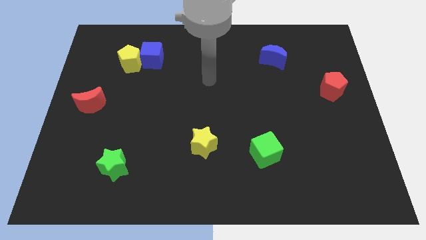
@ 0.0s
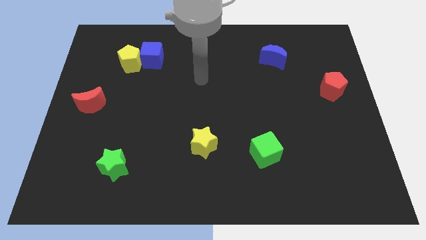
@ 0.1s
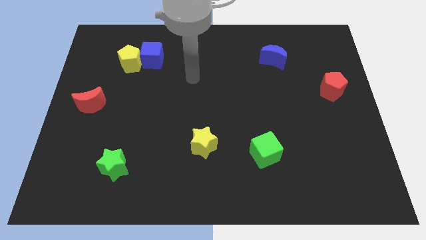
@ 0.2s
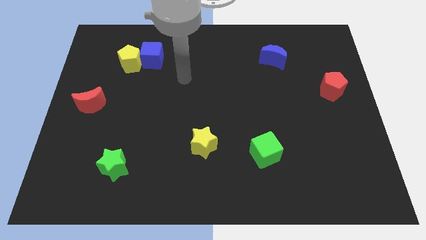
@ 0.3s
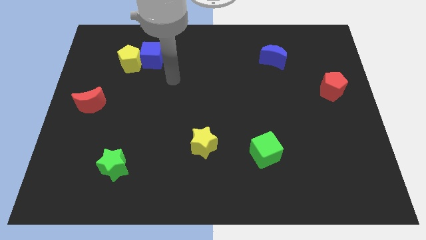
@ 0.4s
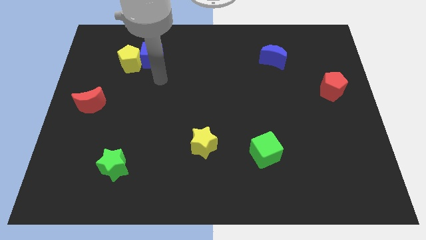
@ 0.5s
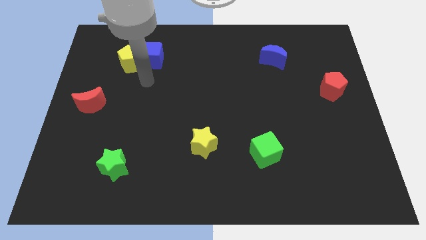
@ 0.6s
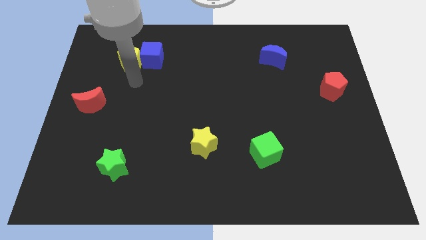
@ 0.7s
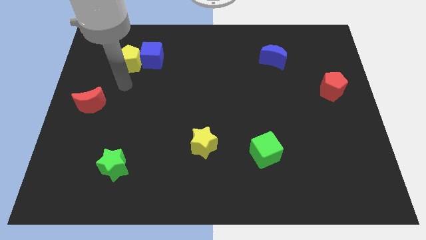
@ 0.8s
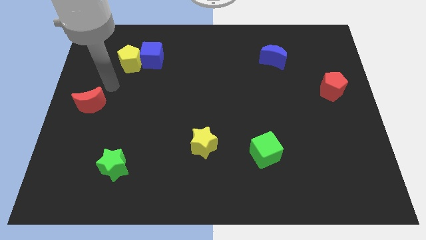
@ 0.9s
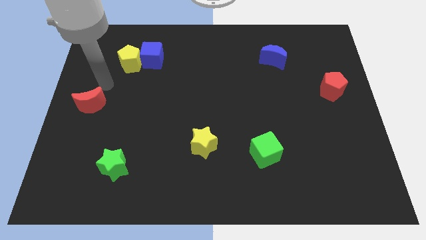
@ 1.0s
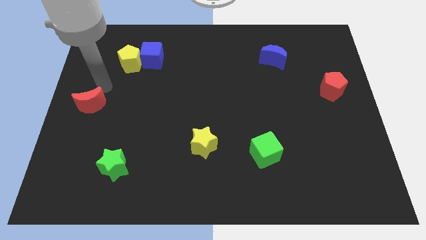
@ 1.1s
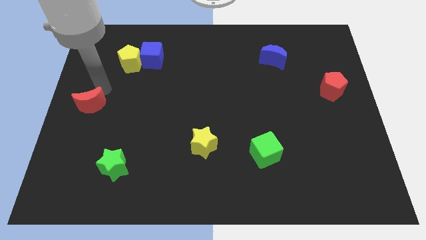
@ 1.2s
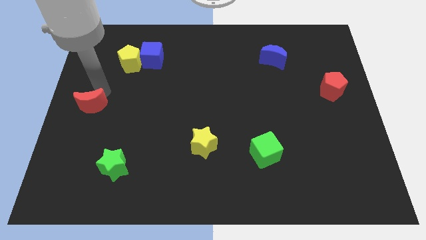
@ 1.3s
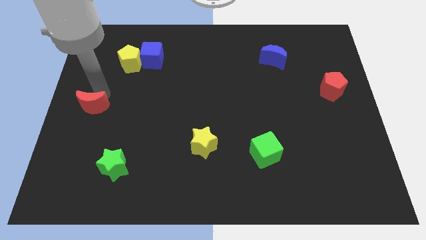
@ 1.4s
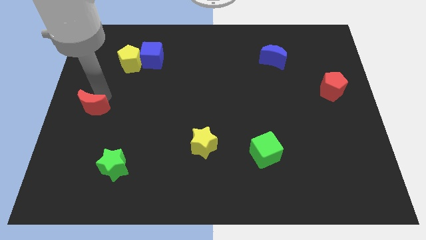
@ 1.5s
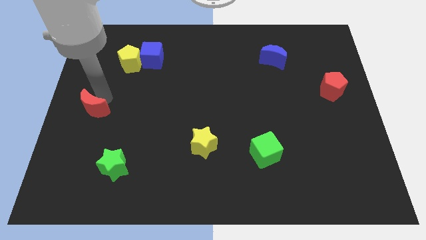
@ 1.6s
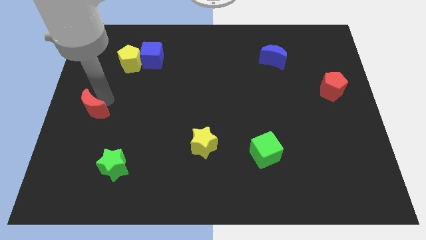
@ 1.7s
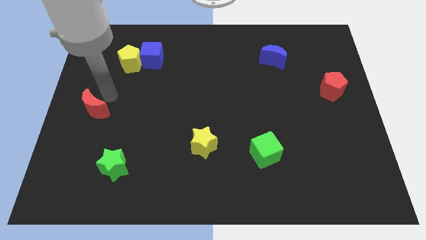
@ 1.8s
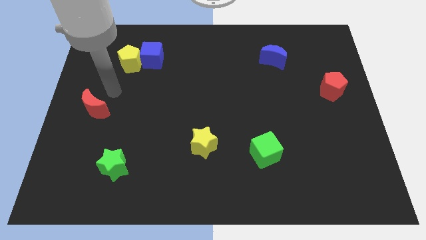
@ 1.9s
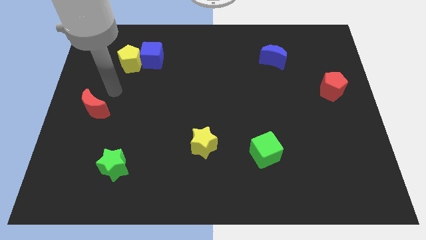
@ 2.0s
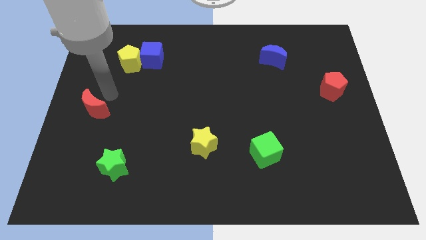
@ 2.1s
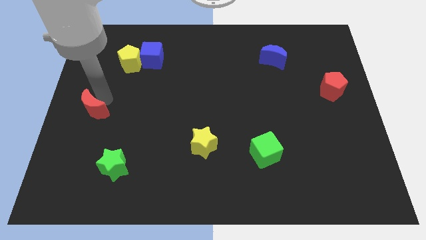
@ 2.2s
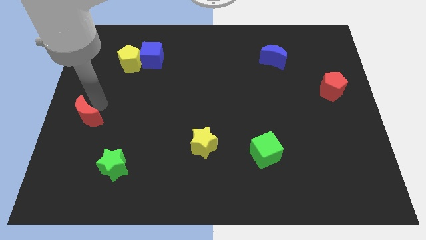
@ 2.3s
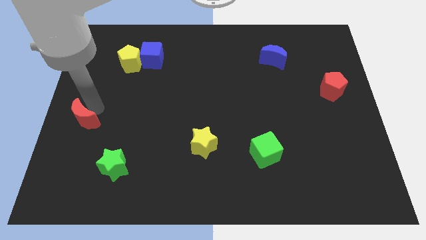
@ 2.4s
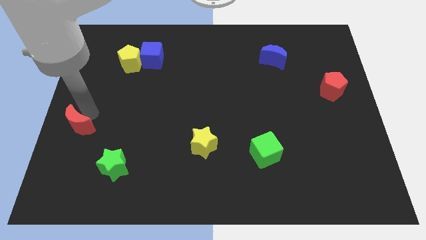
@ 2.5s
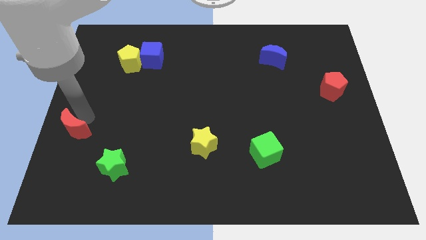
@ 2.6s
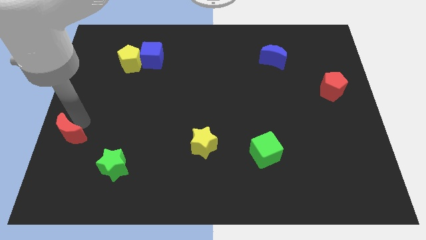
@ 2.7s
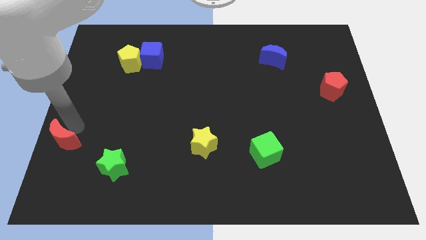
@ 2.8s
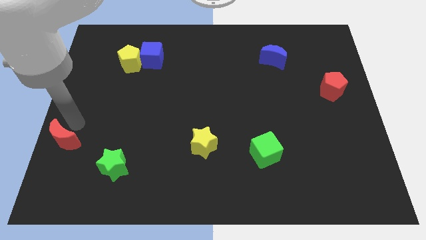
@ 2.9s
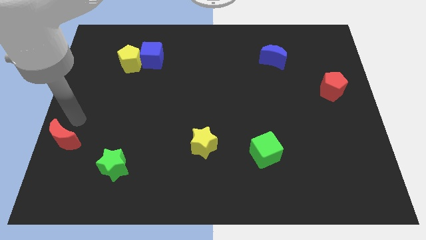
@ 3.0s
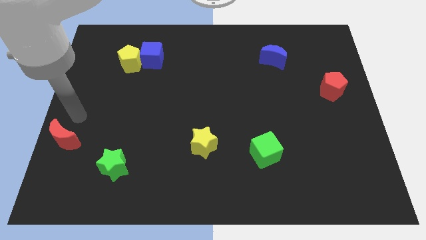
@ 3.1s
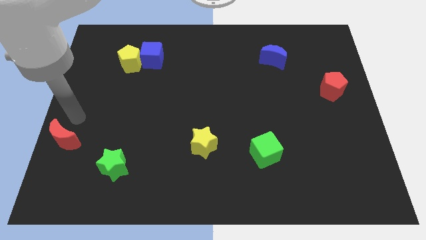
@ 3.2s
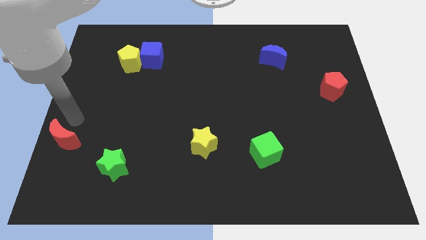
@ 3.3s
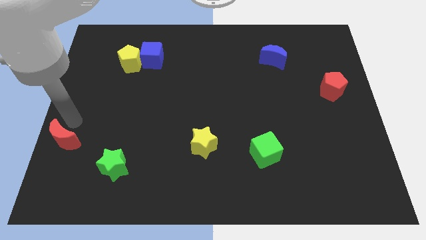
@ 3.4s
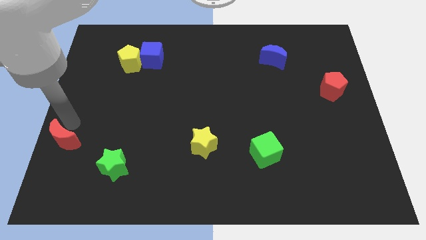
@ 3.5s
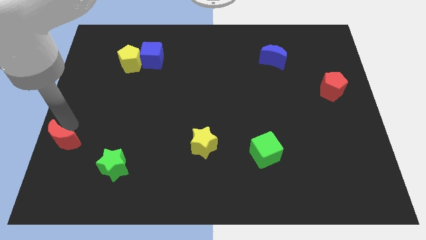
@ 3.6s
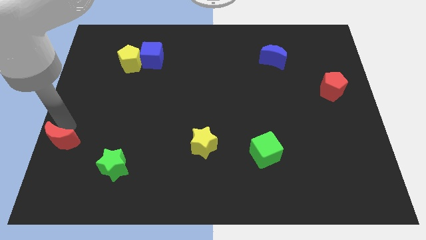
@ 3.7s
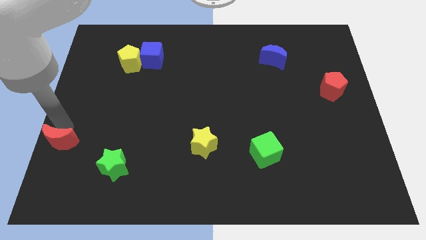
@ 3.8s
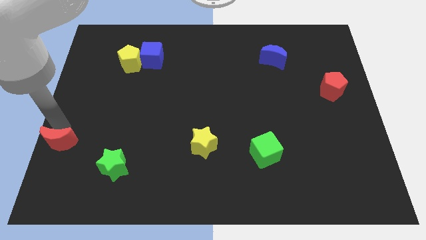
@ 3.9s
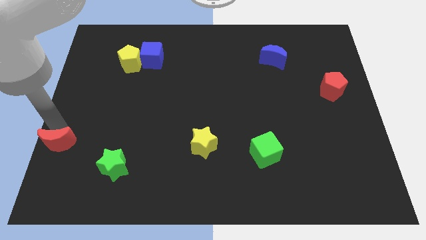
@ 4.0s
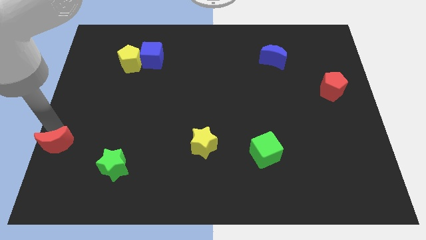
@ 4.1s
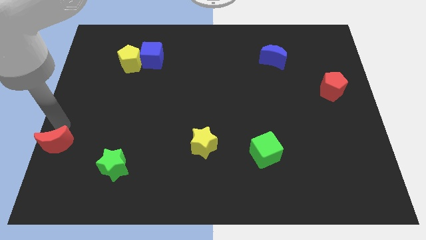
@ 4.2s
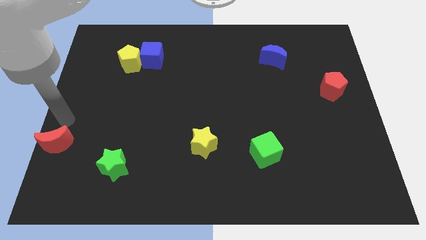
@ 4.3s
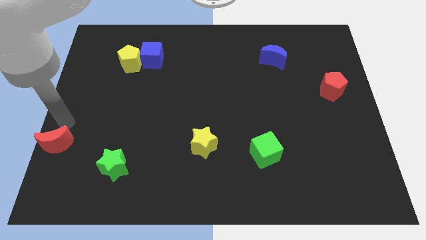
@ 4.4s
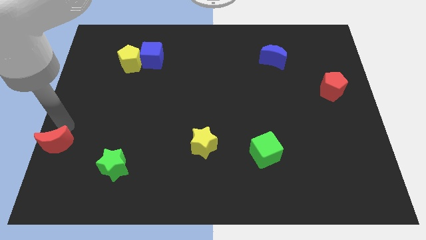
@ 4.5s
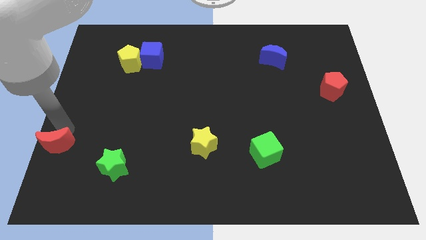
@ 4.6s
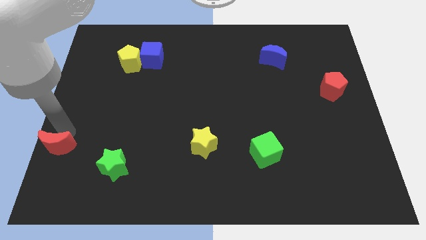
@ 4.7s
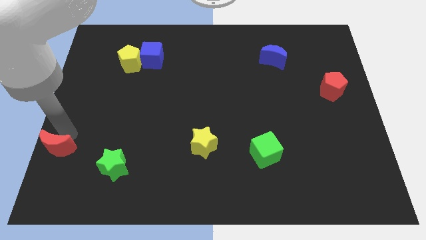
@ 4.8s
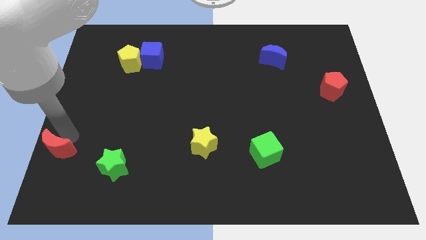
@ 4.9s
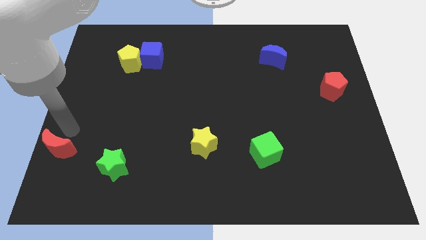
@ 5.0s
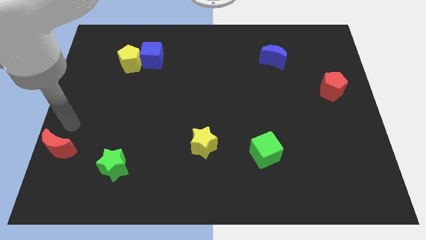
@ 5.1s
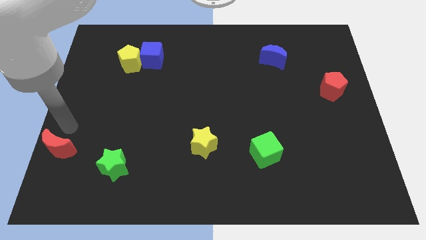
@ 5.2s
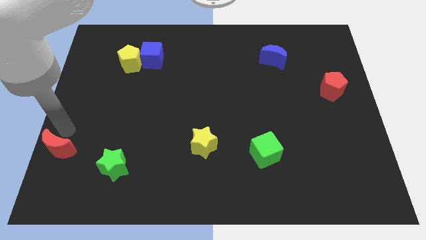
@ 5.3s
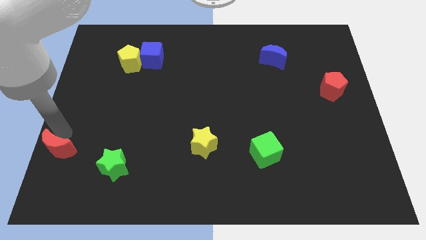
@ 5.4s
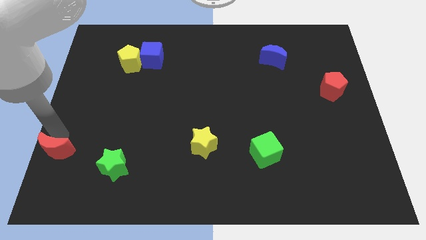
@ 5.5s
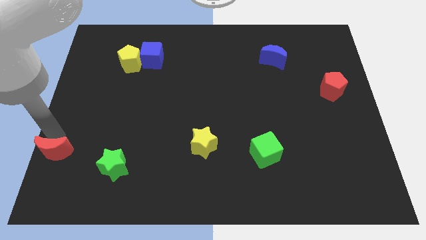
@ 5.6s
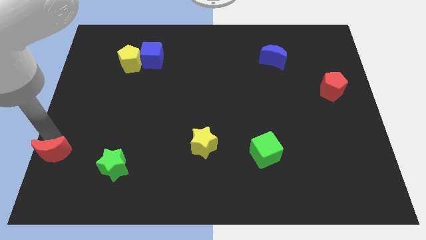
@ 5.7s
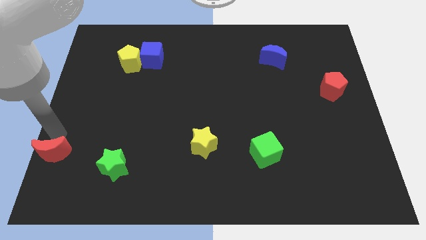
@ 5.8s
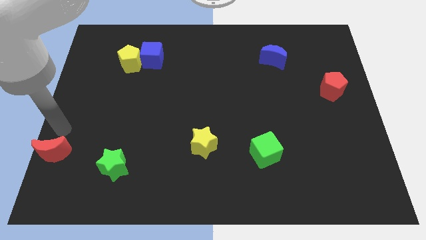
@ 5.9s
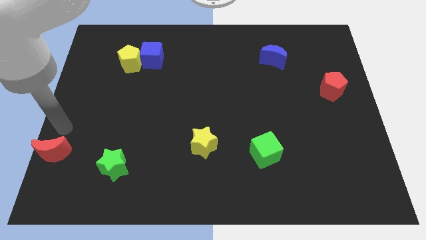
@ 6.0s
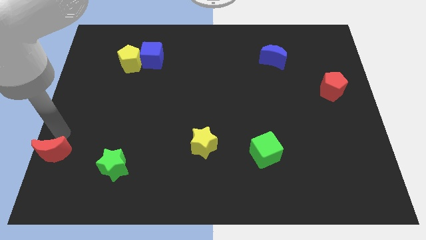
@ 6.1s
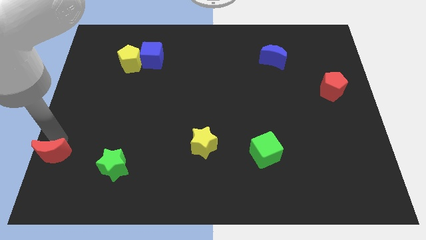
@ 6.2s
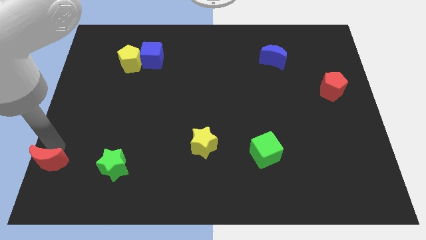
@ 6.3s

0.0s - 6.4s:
slide the red moon to the lower left corner

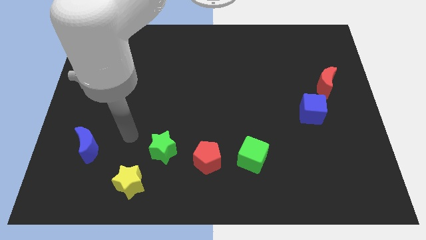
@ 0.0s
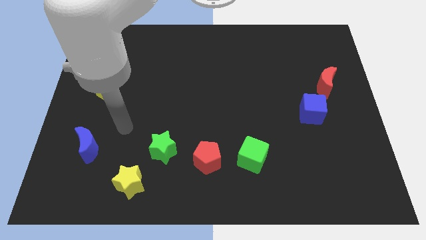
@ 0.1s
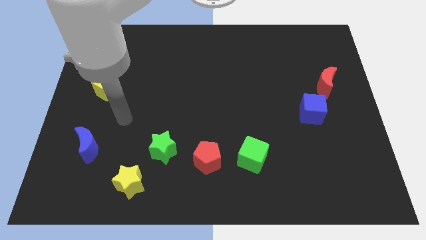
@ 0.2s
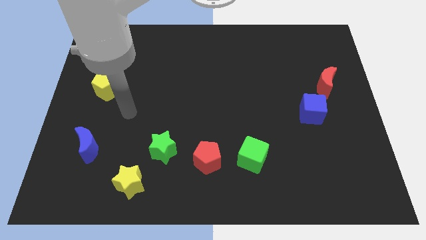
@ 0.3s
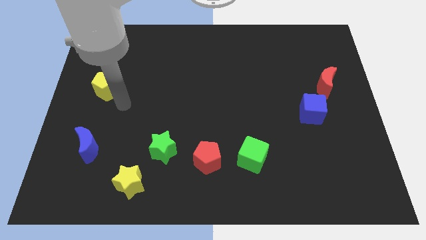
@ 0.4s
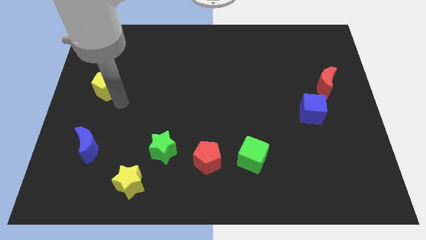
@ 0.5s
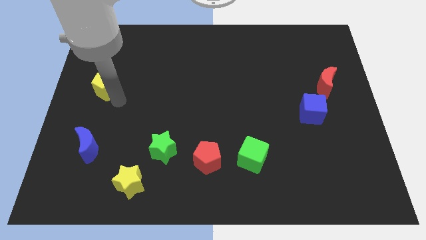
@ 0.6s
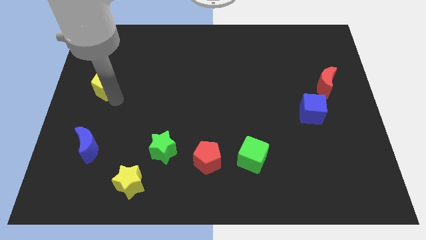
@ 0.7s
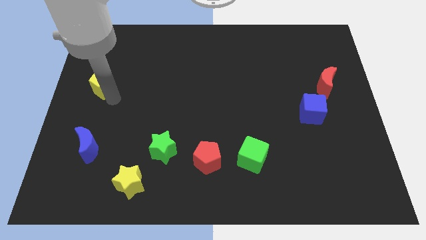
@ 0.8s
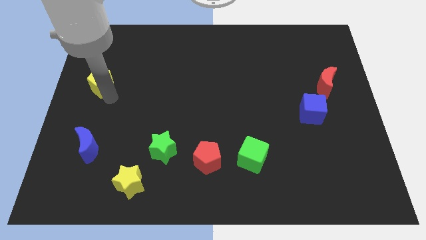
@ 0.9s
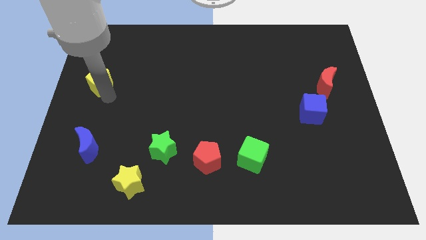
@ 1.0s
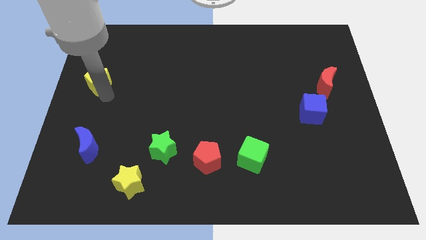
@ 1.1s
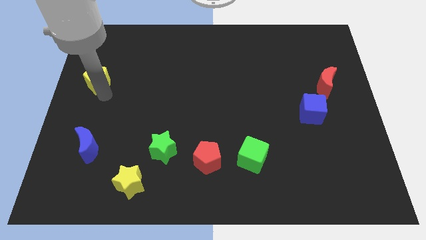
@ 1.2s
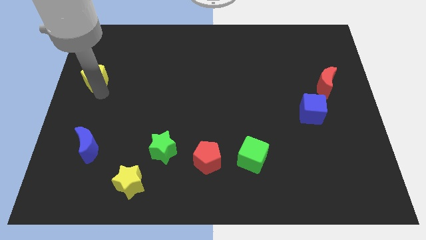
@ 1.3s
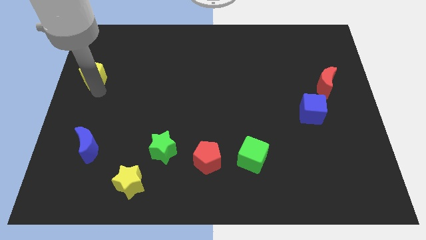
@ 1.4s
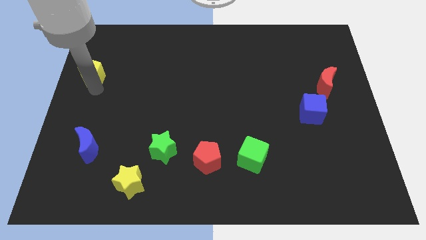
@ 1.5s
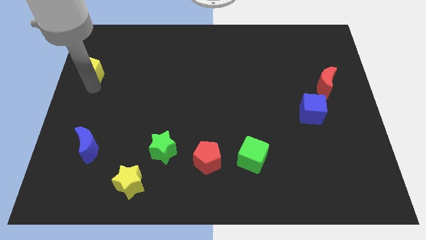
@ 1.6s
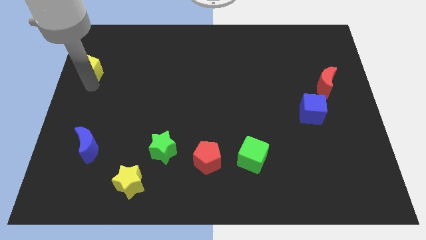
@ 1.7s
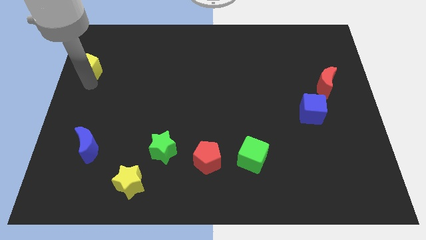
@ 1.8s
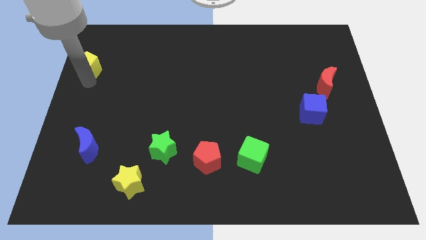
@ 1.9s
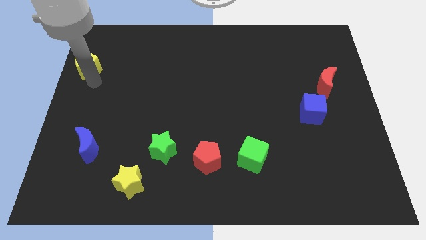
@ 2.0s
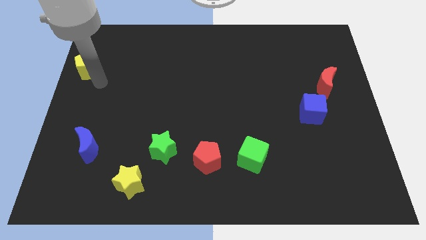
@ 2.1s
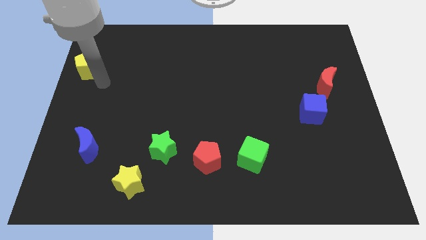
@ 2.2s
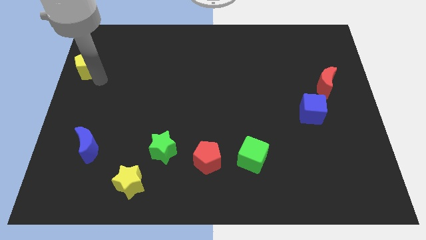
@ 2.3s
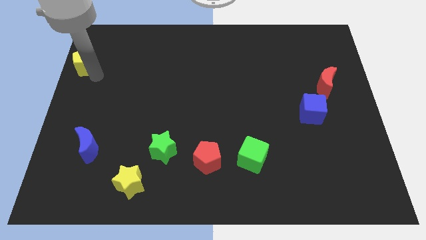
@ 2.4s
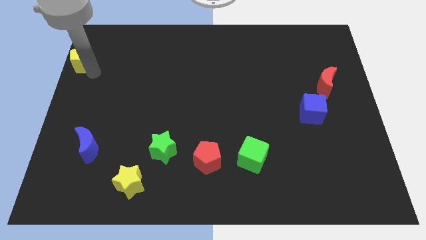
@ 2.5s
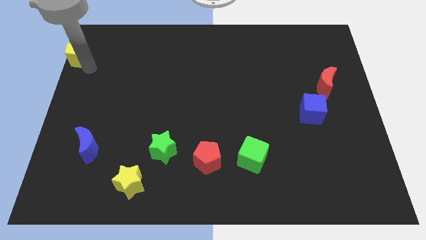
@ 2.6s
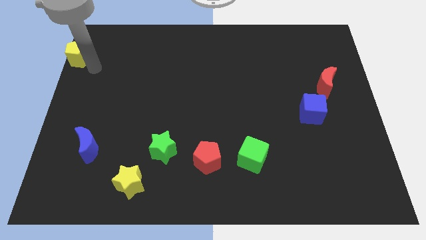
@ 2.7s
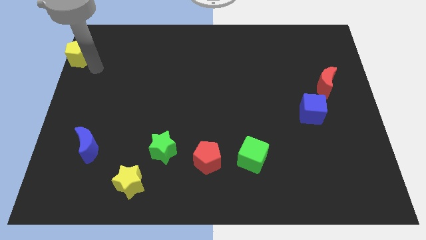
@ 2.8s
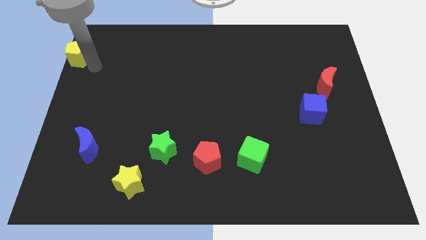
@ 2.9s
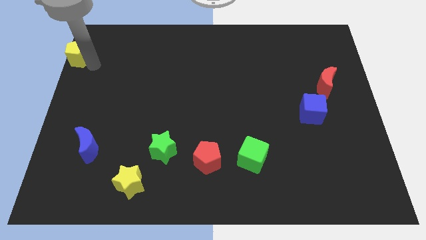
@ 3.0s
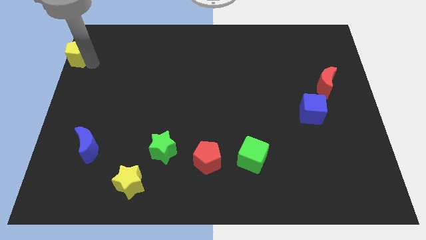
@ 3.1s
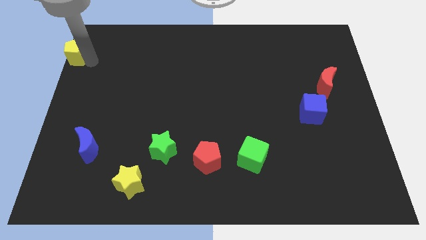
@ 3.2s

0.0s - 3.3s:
slide the yellow pentagon to the top left of the board
